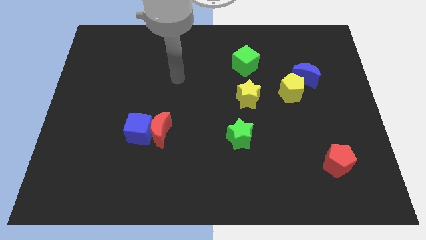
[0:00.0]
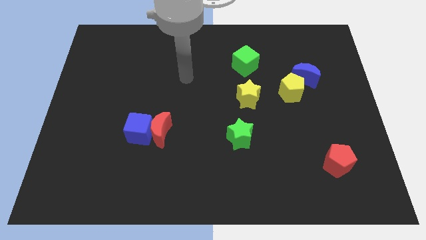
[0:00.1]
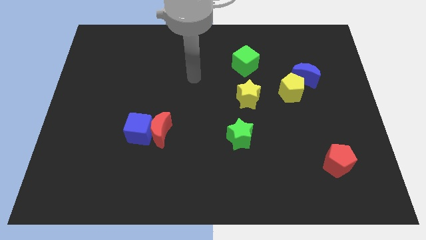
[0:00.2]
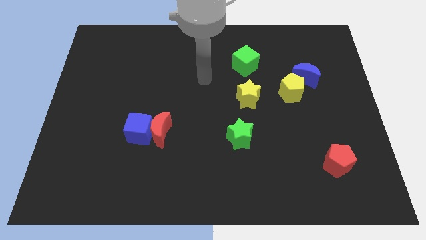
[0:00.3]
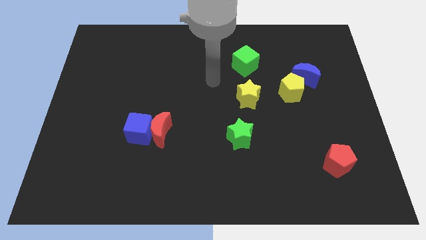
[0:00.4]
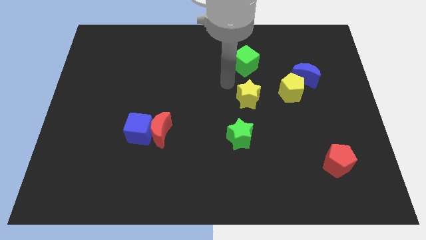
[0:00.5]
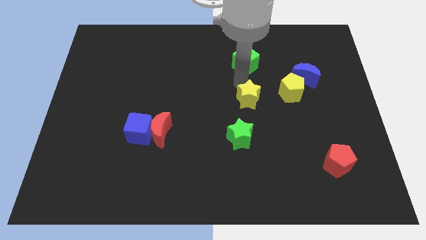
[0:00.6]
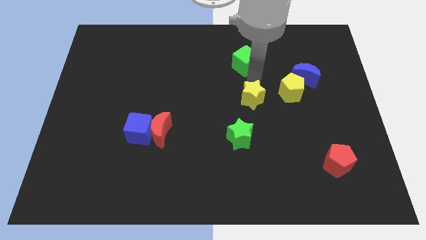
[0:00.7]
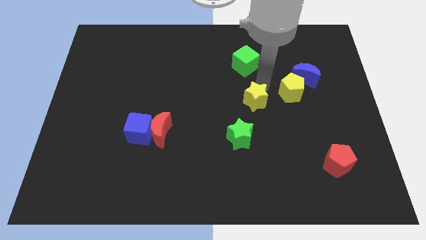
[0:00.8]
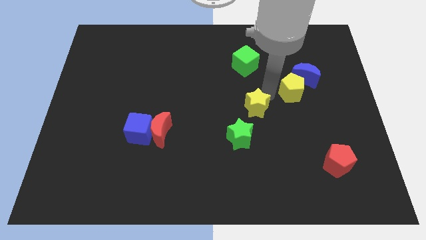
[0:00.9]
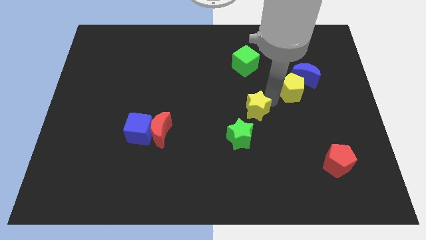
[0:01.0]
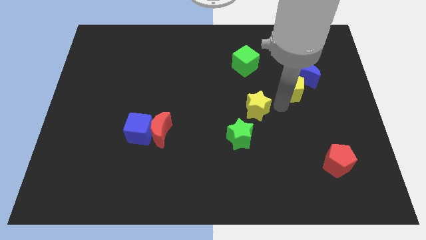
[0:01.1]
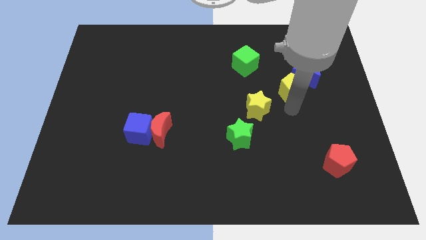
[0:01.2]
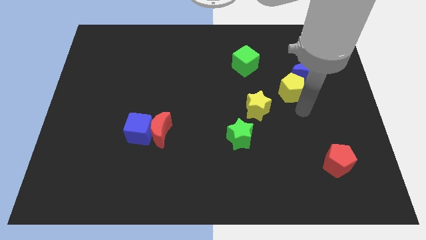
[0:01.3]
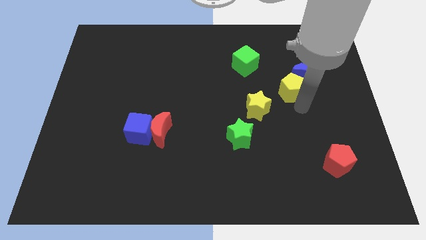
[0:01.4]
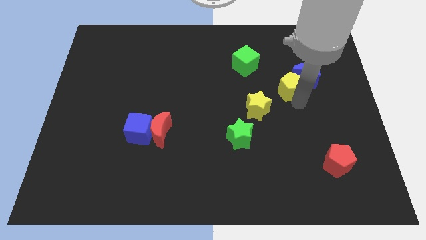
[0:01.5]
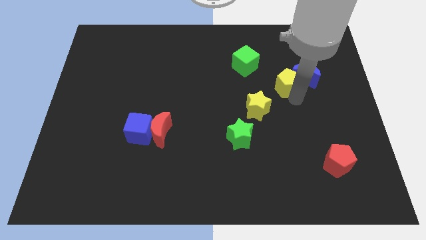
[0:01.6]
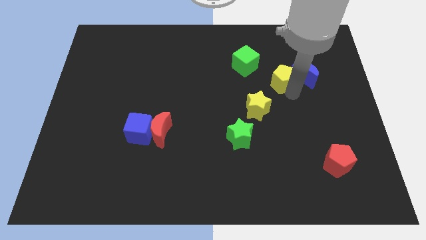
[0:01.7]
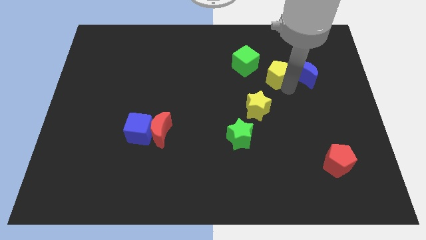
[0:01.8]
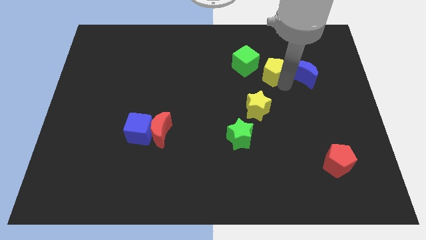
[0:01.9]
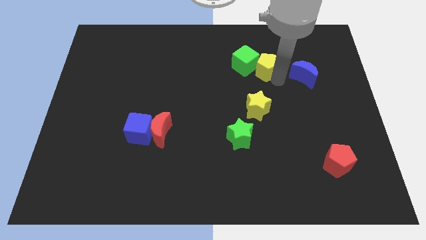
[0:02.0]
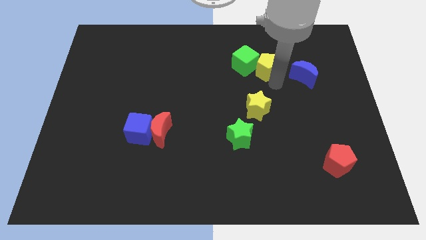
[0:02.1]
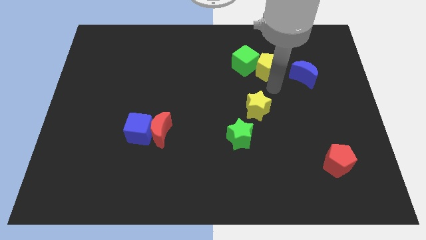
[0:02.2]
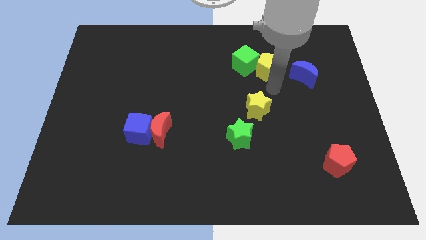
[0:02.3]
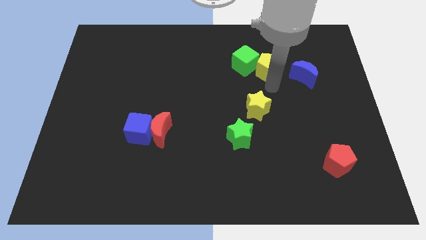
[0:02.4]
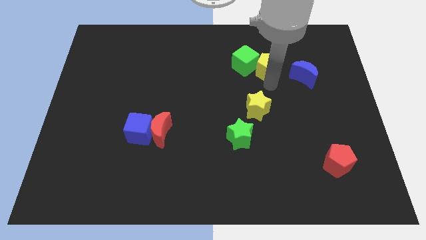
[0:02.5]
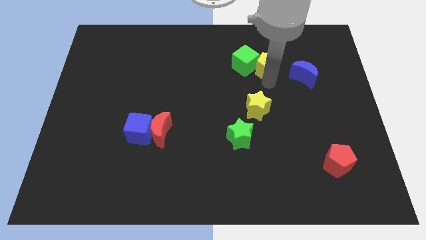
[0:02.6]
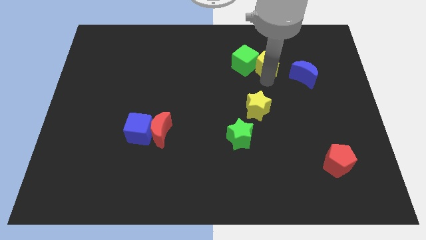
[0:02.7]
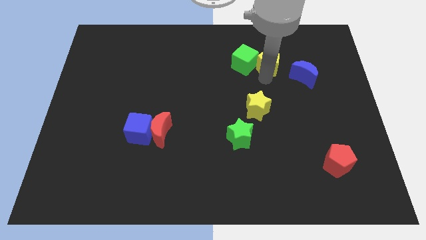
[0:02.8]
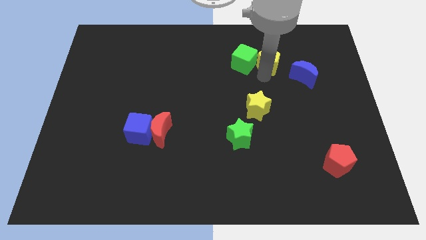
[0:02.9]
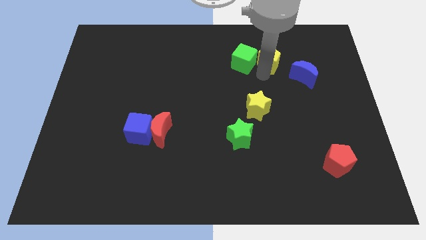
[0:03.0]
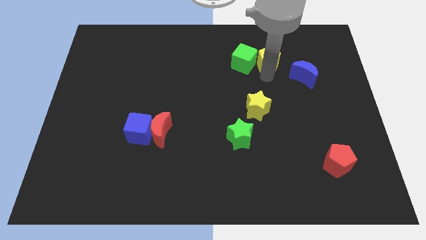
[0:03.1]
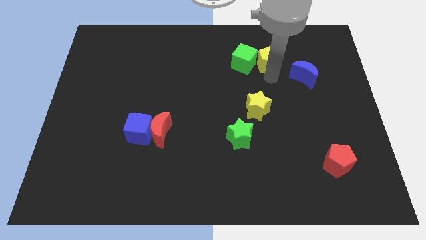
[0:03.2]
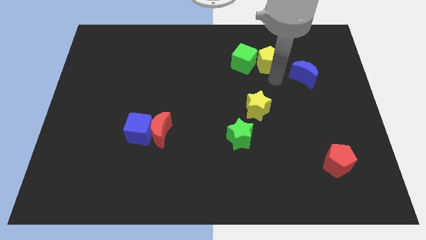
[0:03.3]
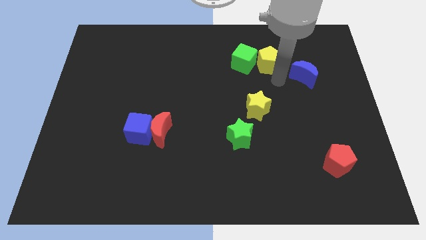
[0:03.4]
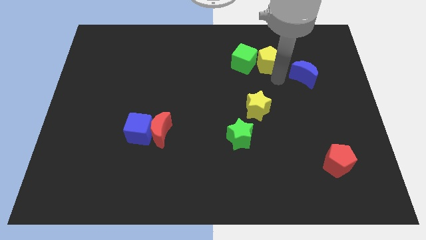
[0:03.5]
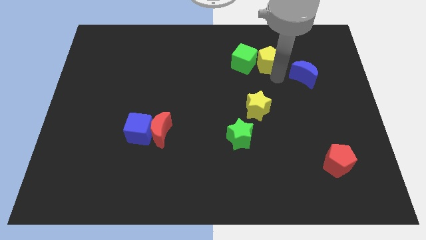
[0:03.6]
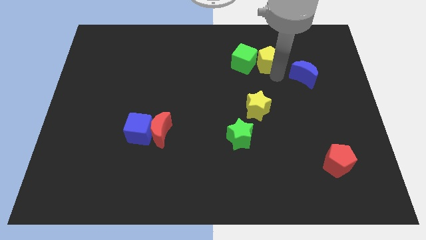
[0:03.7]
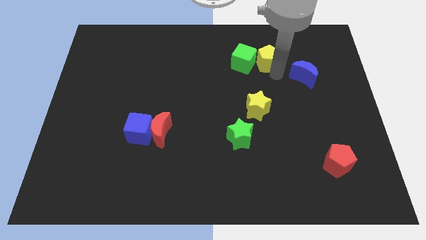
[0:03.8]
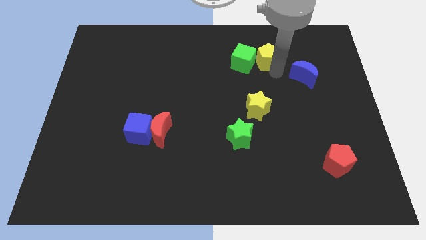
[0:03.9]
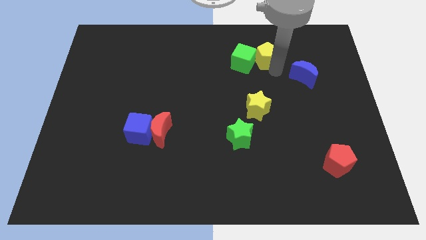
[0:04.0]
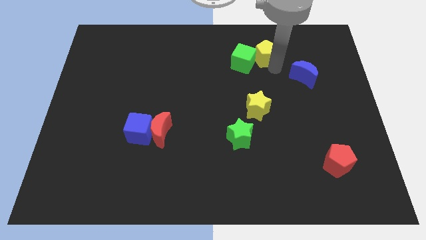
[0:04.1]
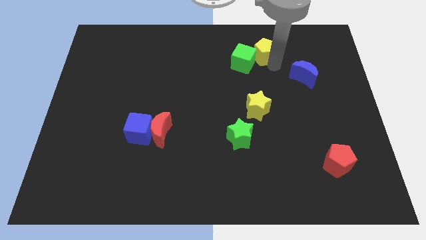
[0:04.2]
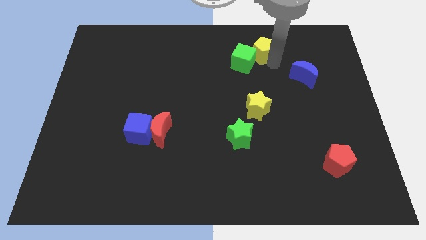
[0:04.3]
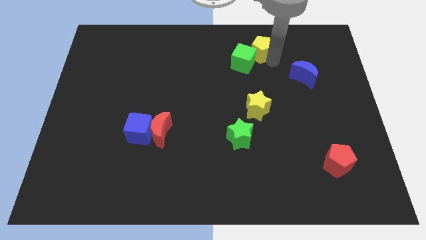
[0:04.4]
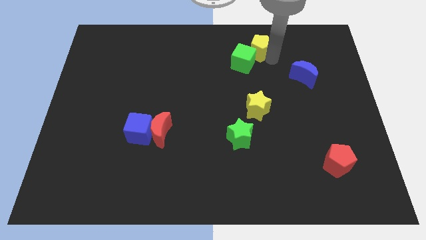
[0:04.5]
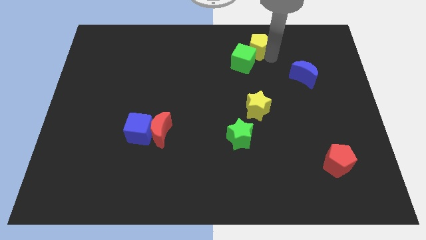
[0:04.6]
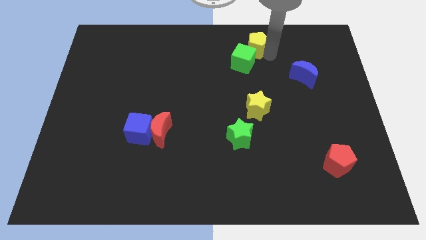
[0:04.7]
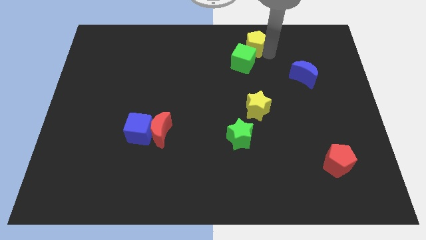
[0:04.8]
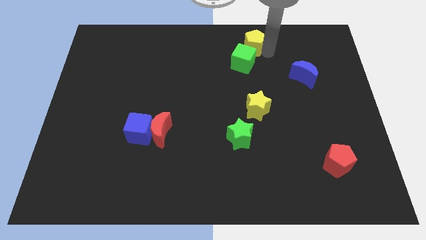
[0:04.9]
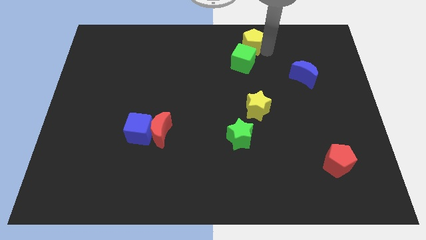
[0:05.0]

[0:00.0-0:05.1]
move the yellow pentagon to the top

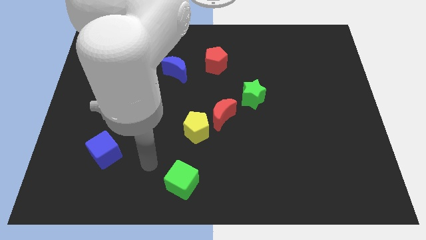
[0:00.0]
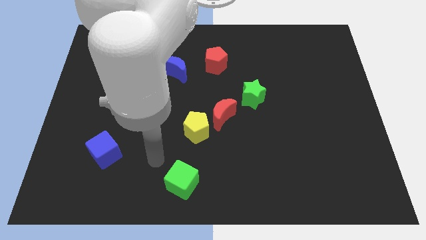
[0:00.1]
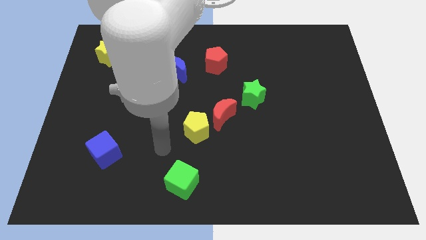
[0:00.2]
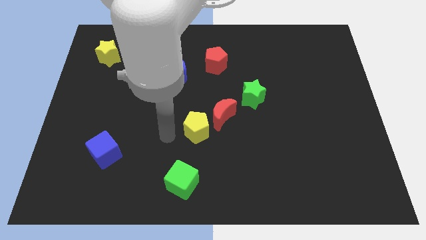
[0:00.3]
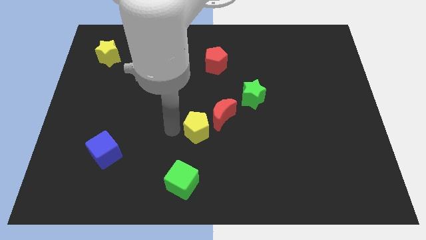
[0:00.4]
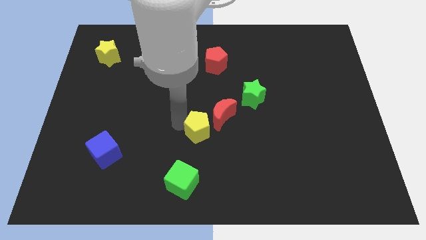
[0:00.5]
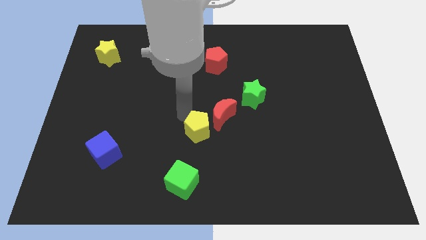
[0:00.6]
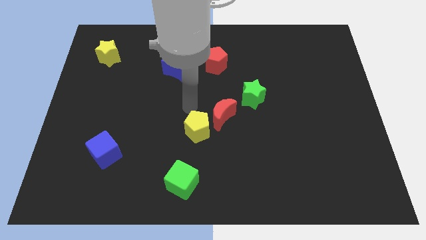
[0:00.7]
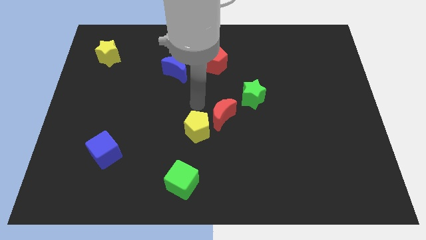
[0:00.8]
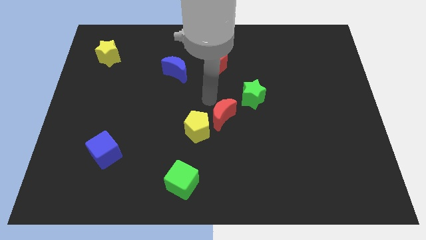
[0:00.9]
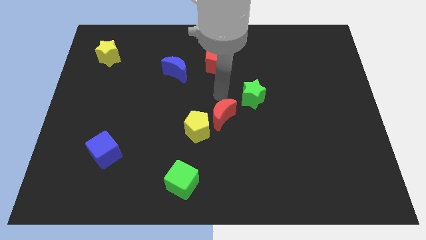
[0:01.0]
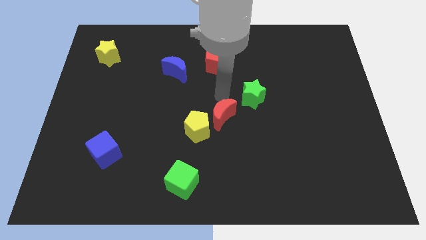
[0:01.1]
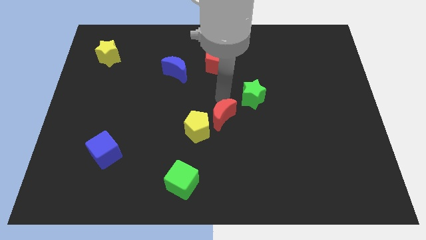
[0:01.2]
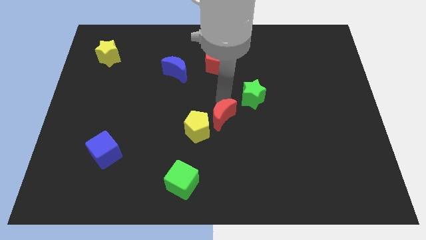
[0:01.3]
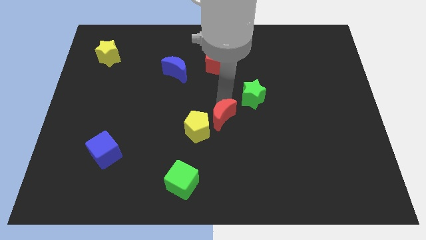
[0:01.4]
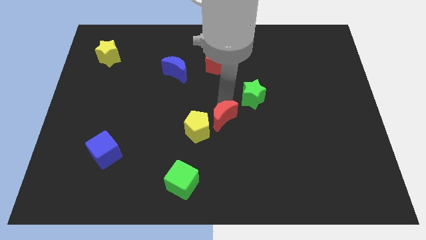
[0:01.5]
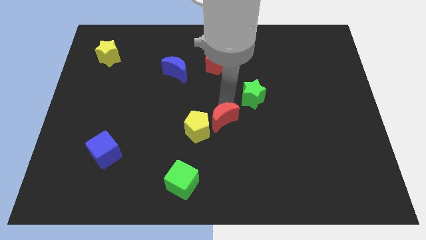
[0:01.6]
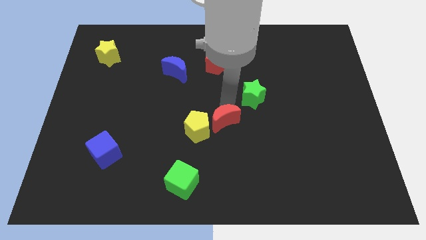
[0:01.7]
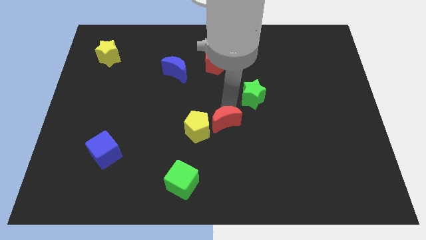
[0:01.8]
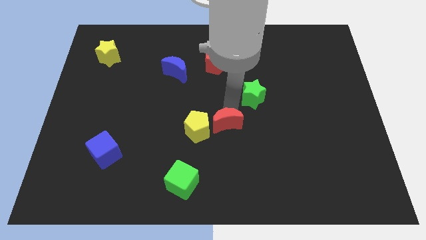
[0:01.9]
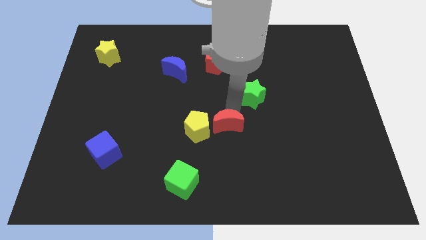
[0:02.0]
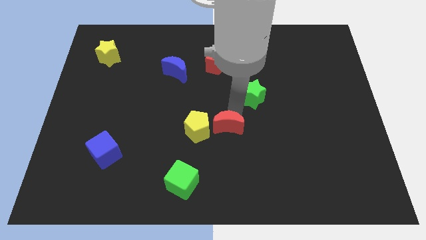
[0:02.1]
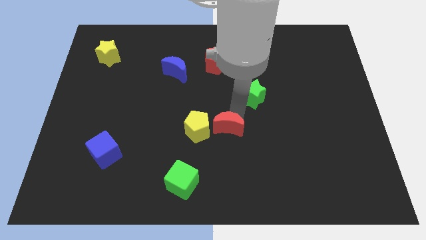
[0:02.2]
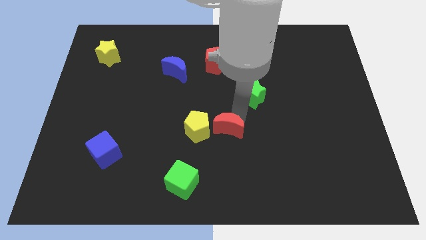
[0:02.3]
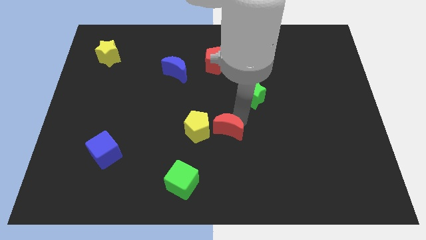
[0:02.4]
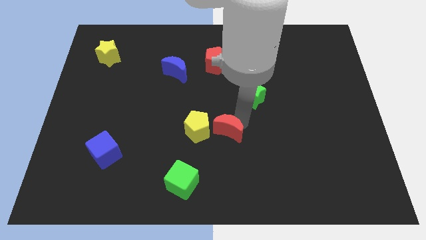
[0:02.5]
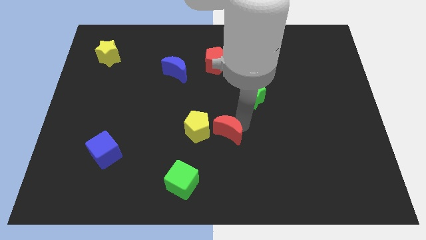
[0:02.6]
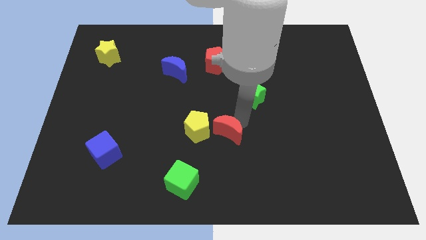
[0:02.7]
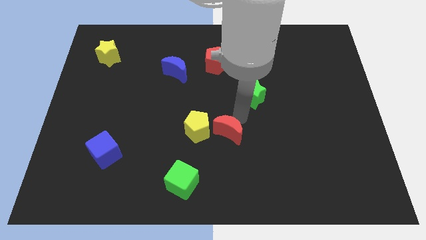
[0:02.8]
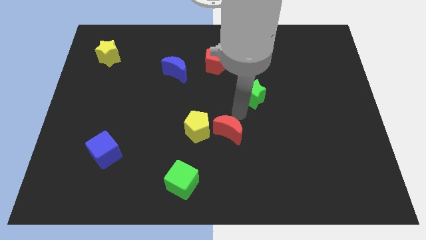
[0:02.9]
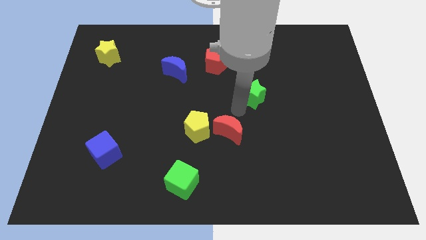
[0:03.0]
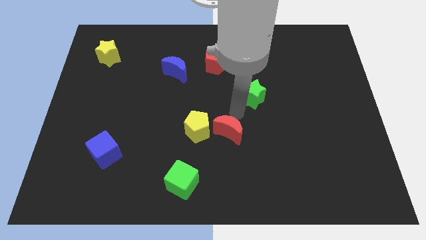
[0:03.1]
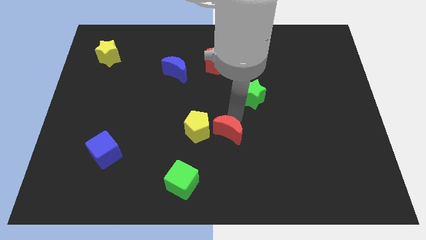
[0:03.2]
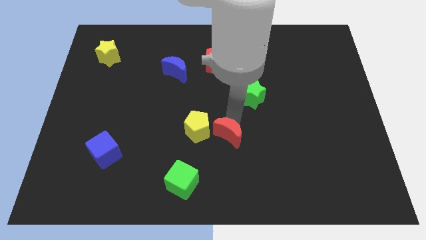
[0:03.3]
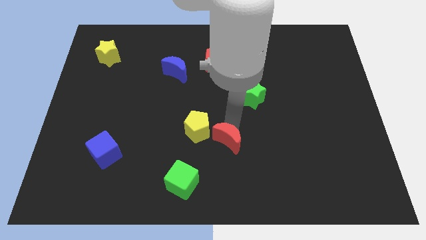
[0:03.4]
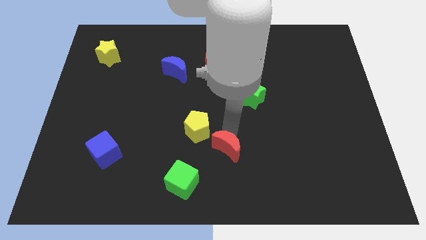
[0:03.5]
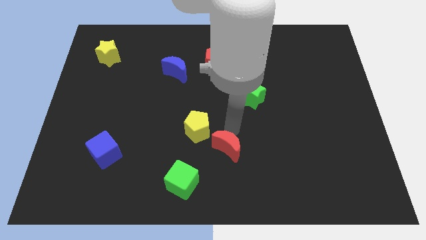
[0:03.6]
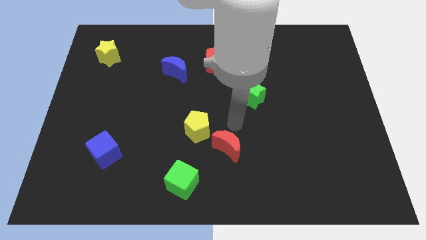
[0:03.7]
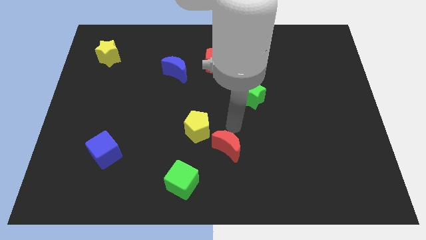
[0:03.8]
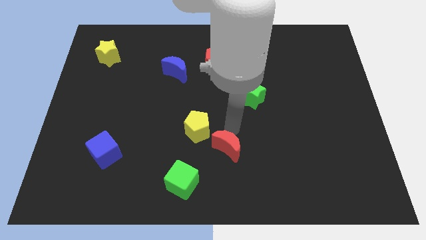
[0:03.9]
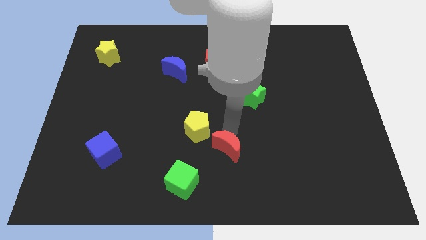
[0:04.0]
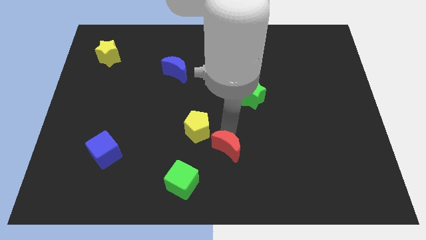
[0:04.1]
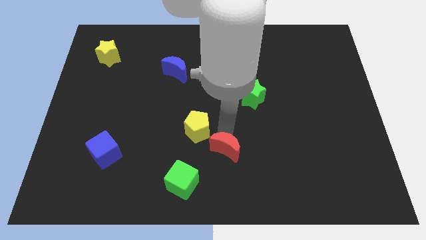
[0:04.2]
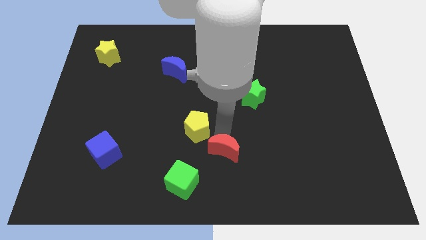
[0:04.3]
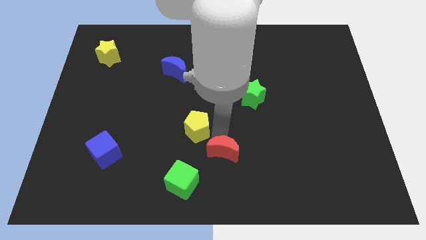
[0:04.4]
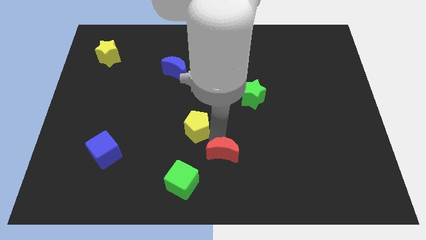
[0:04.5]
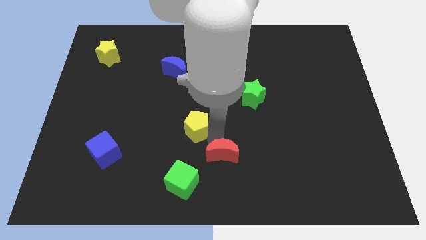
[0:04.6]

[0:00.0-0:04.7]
put the red moon to the bottom side
